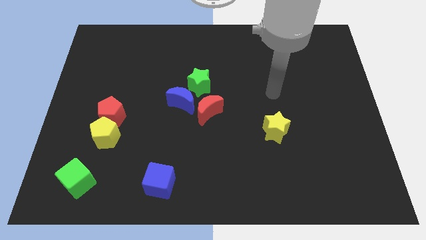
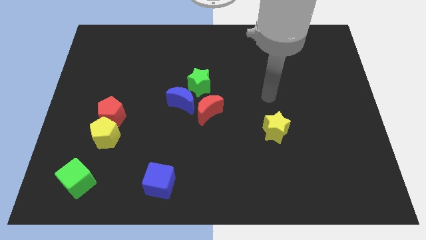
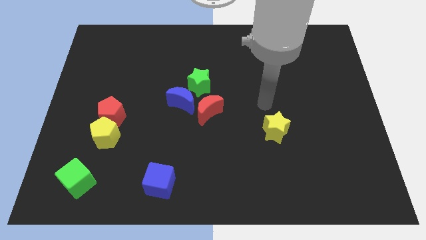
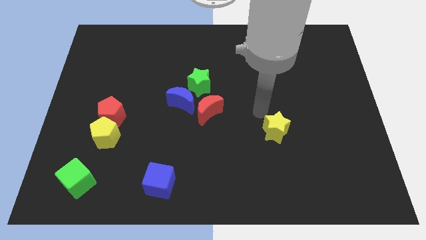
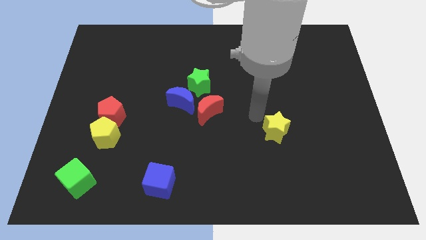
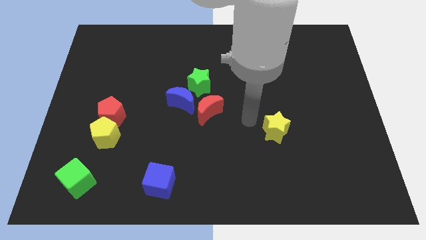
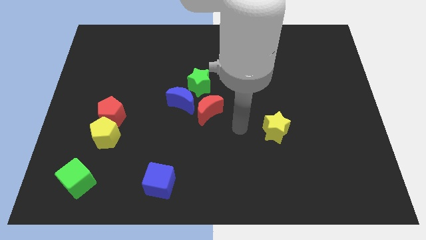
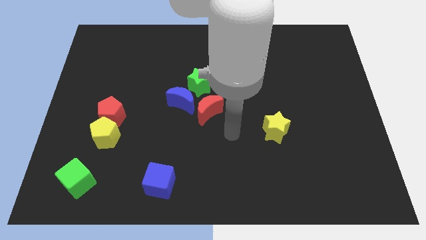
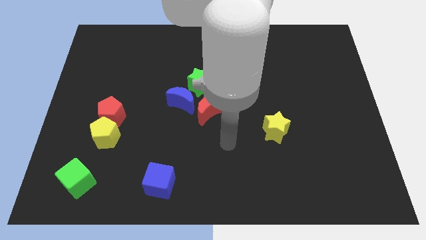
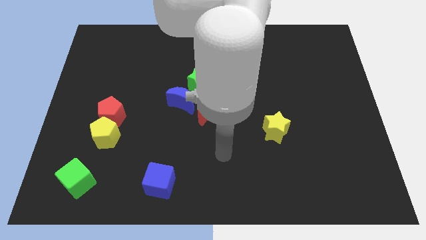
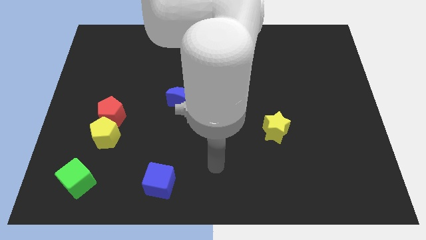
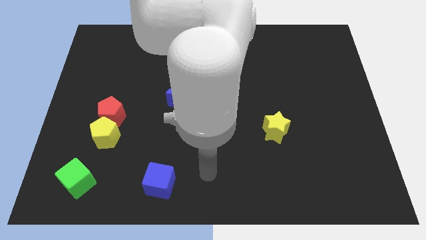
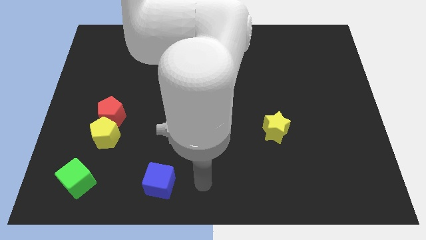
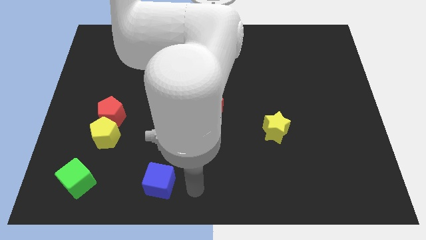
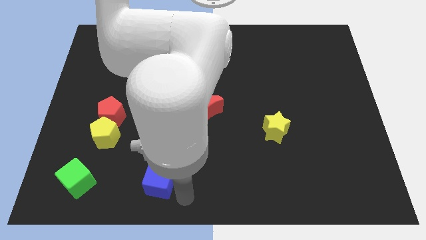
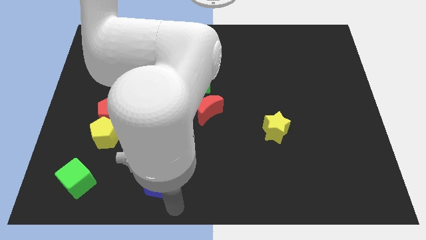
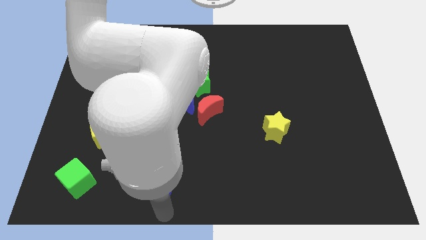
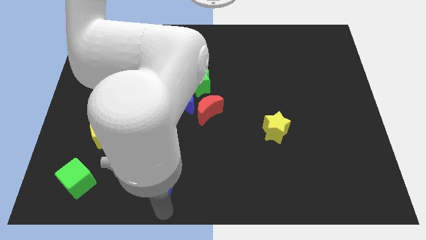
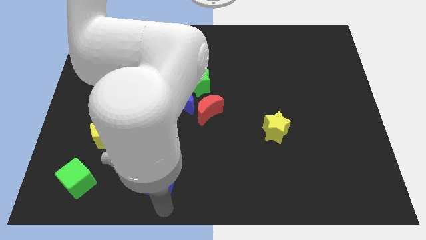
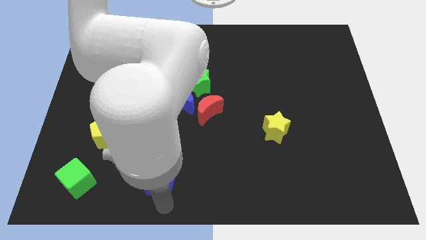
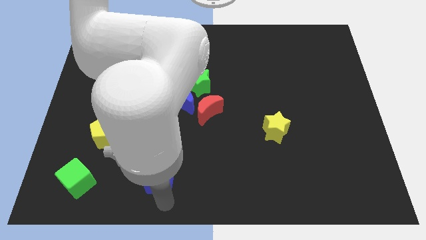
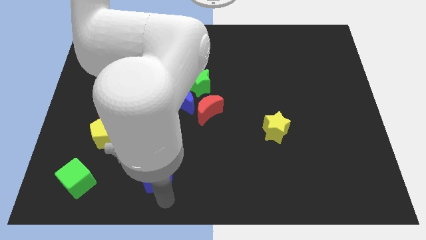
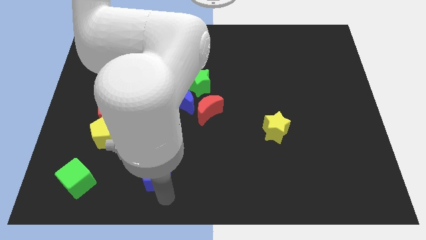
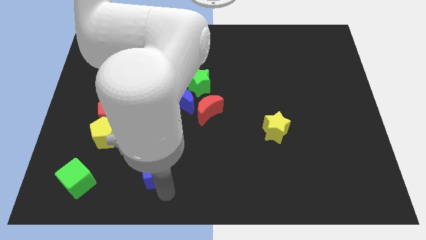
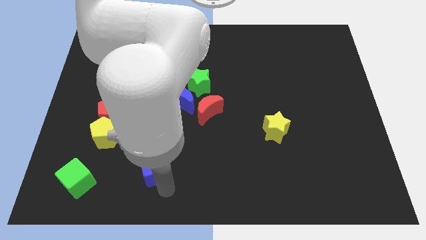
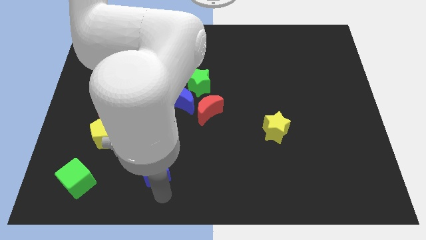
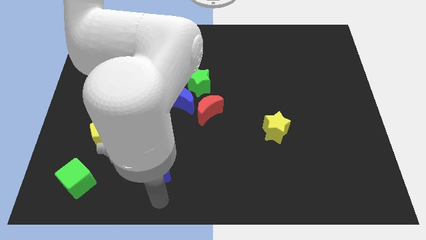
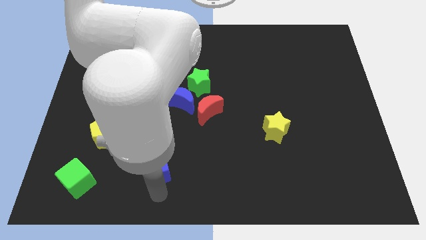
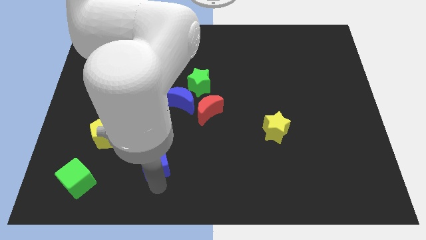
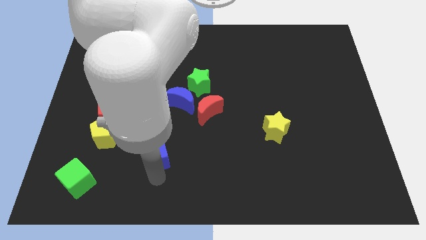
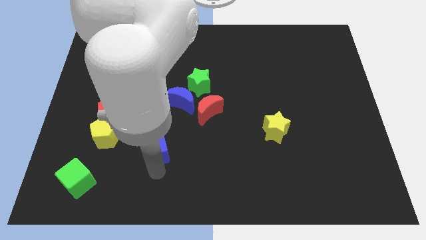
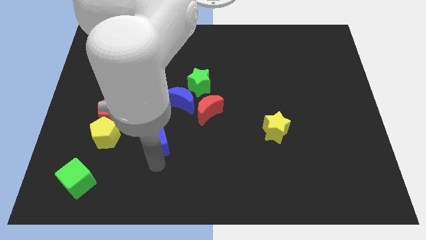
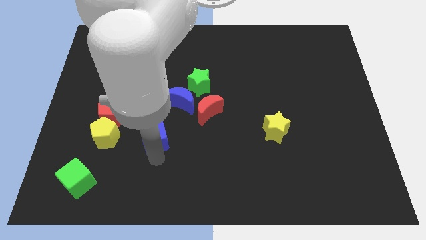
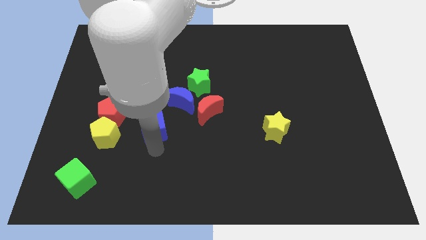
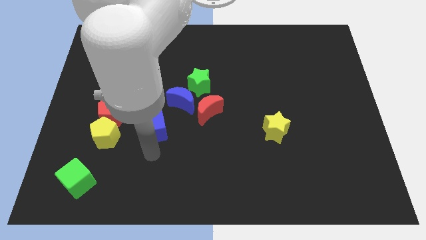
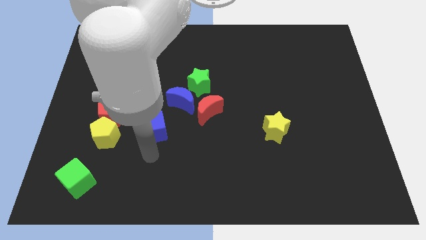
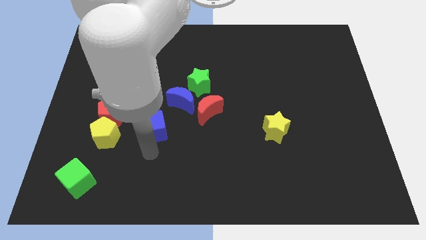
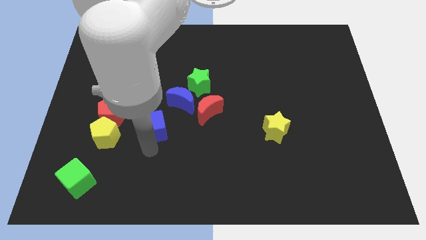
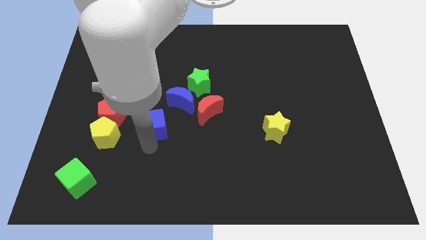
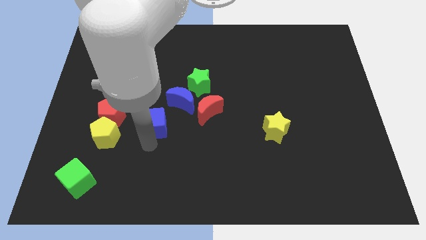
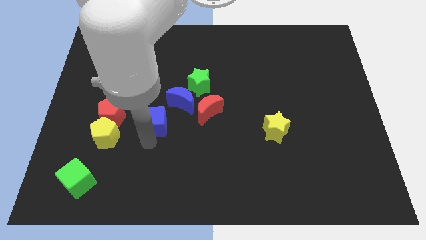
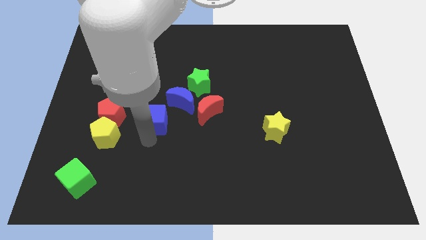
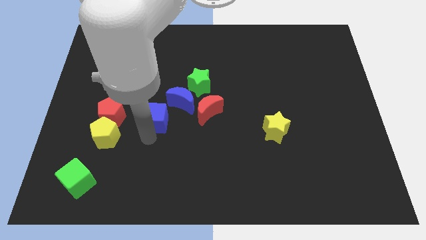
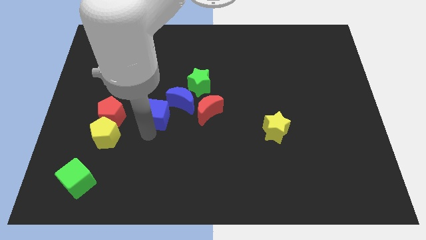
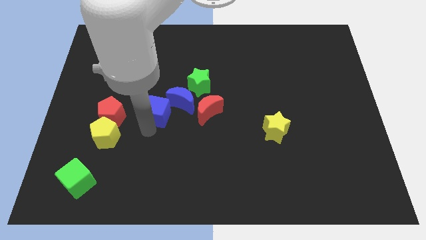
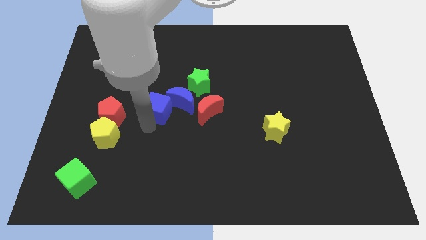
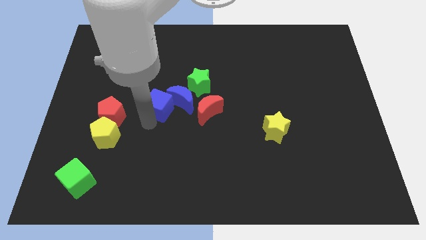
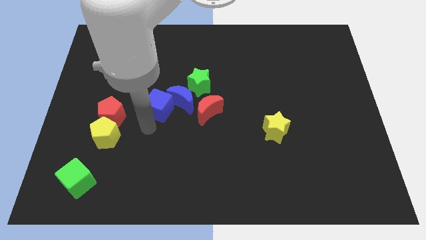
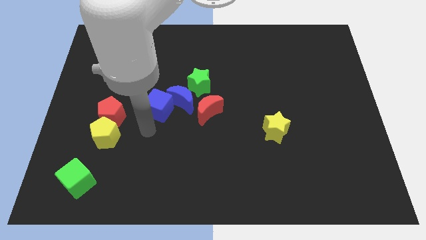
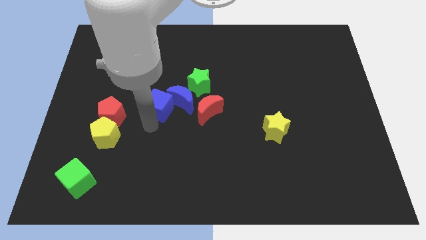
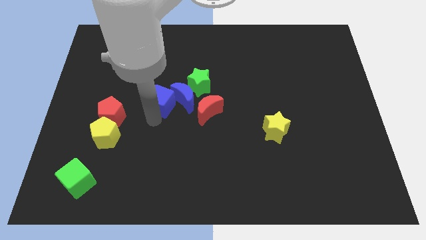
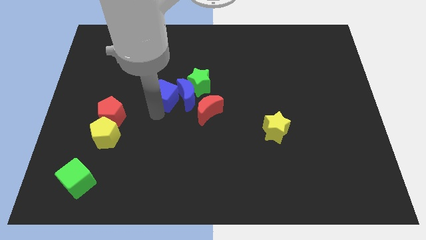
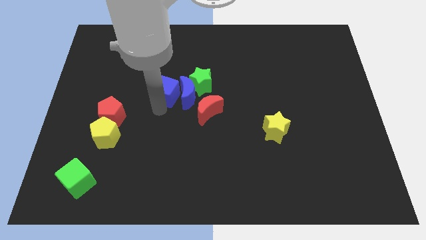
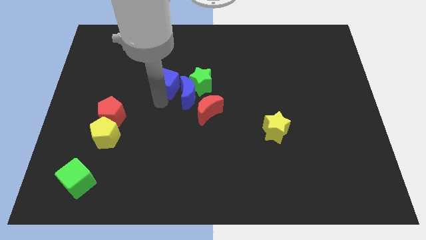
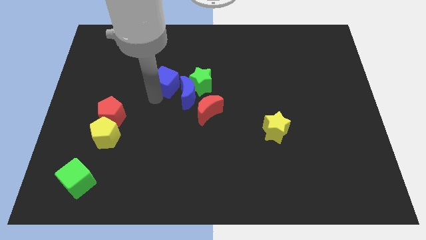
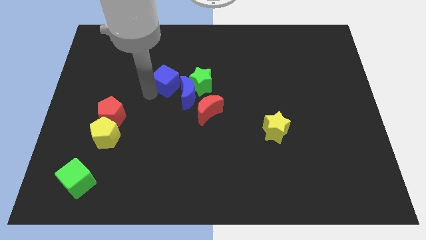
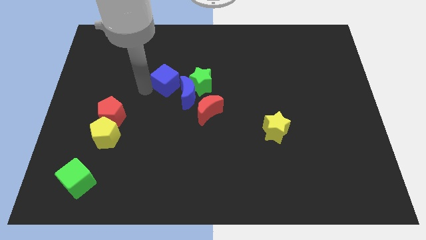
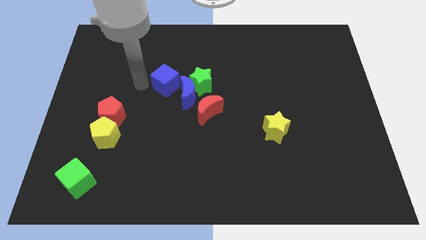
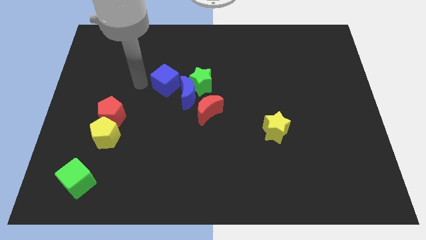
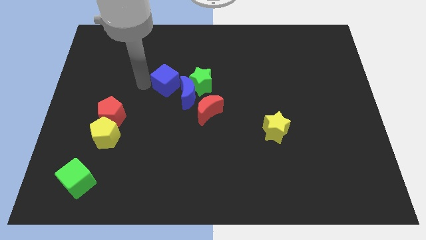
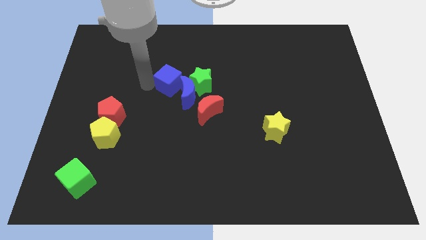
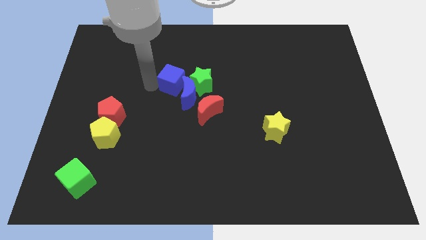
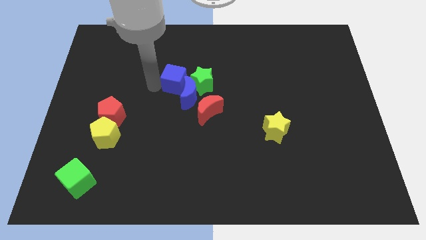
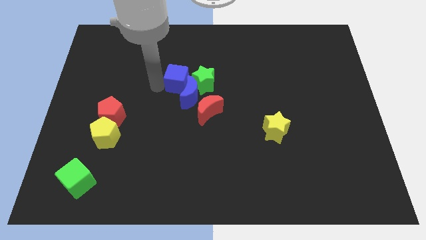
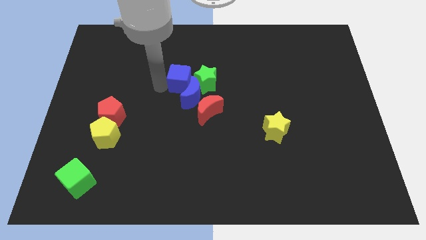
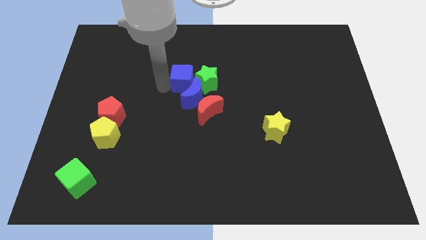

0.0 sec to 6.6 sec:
put the blue cube close to the green star

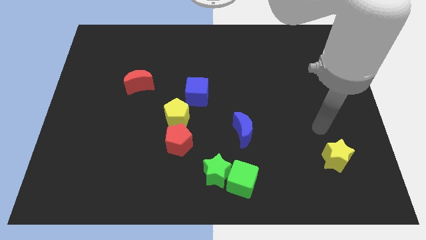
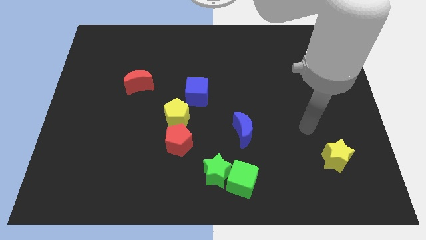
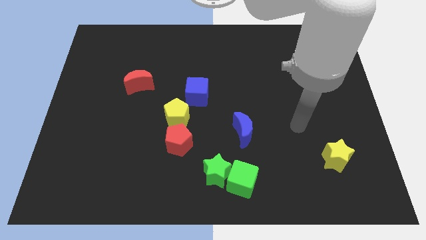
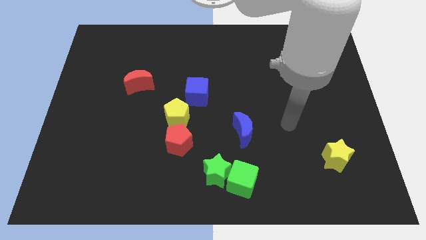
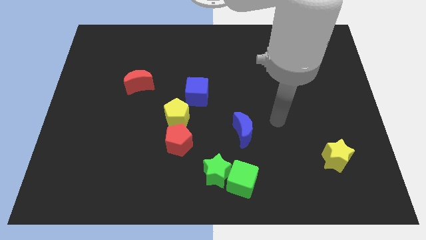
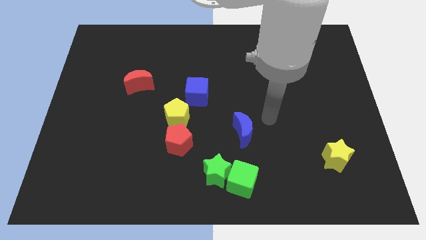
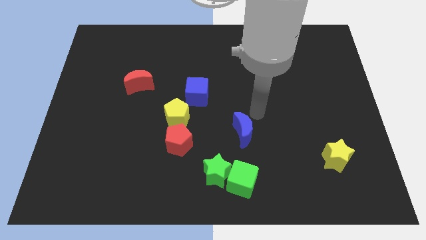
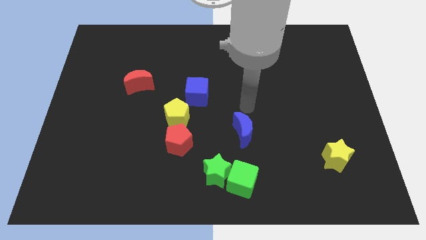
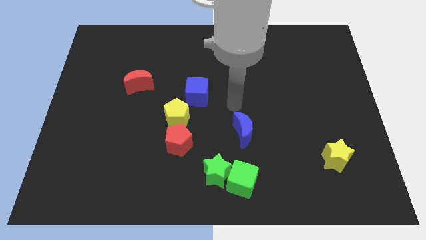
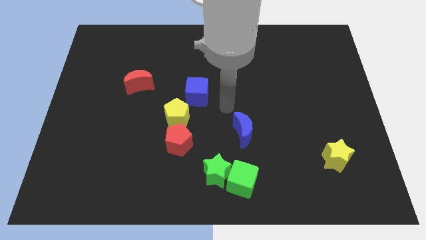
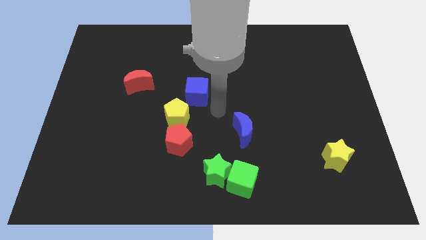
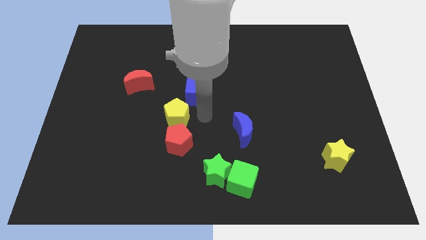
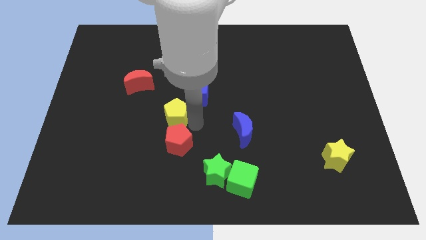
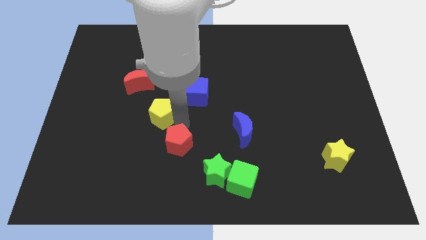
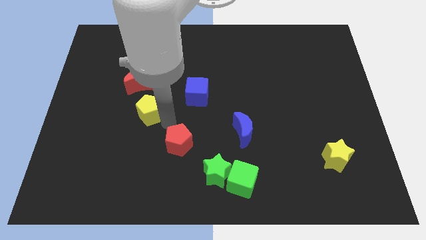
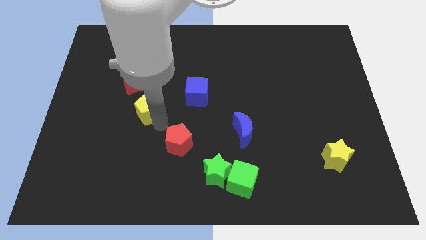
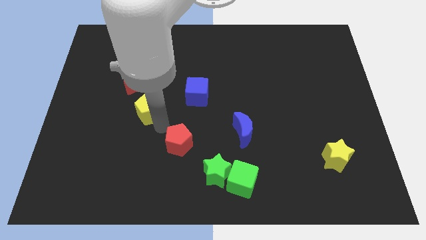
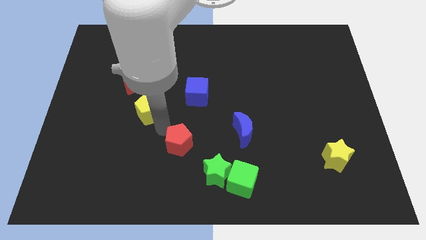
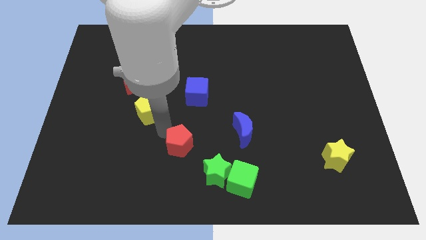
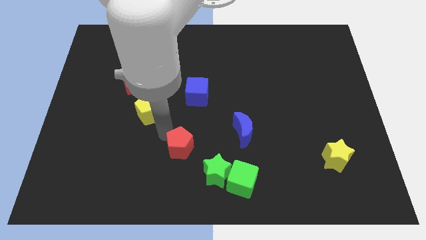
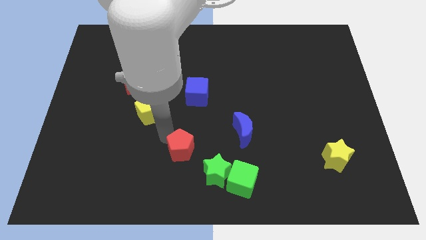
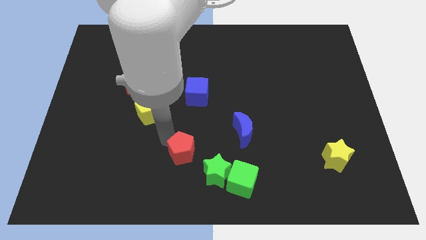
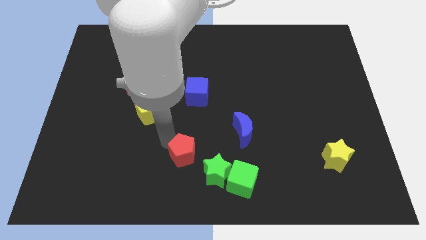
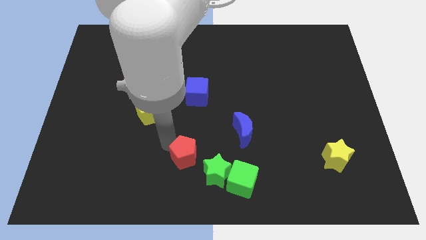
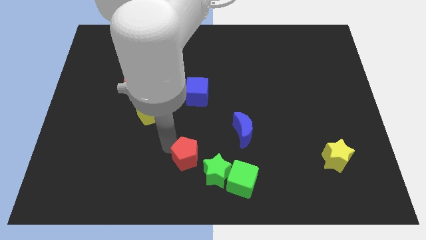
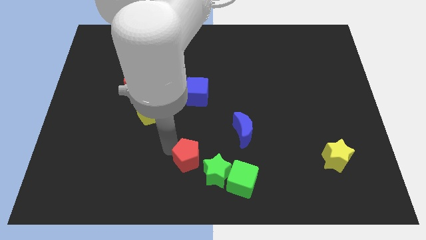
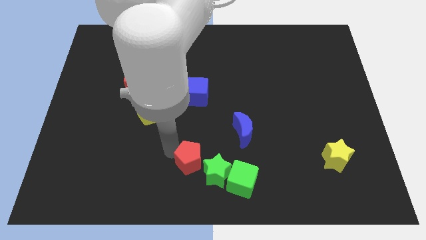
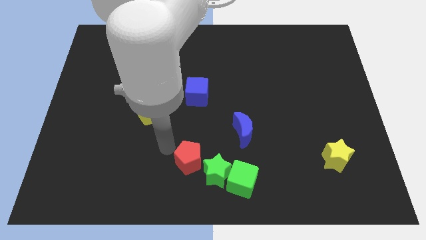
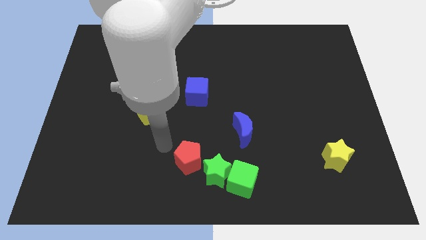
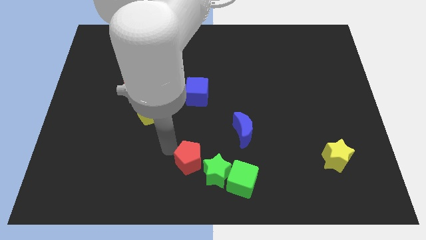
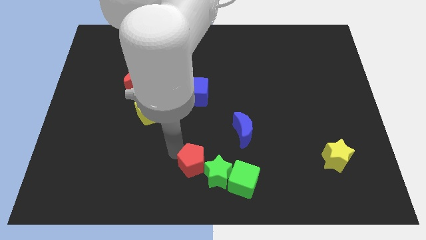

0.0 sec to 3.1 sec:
move the red pentagon close to the green star
